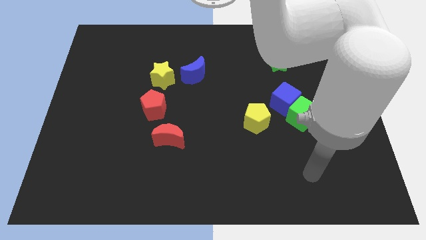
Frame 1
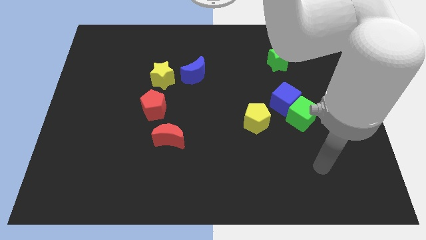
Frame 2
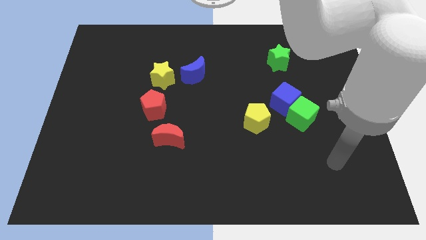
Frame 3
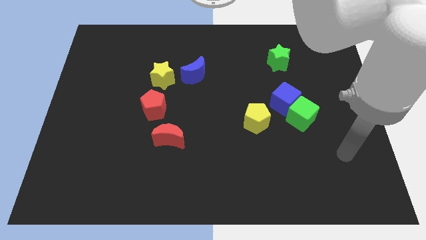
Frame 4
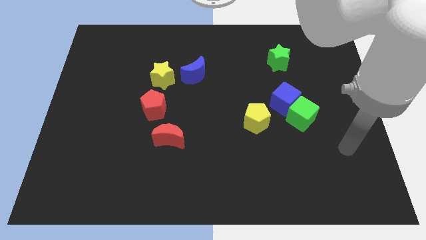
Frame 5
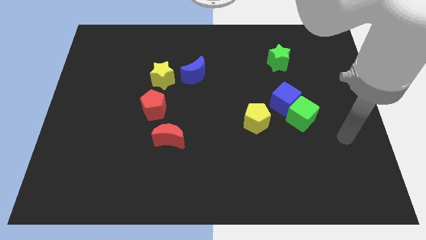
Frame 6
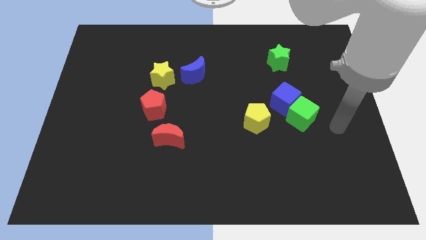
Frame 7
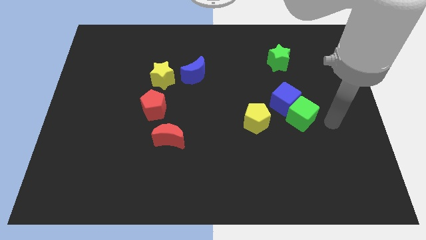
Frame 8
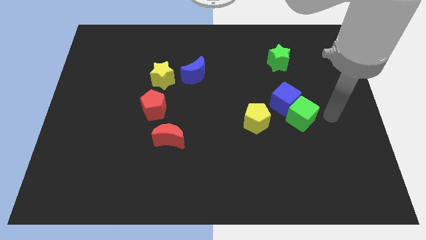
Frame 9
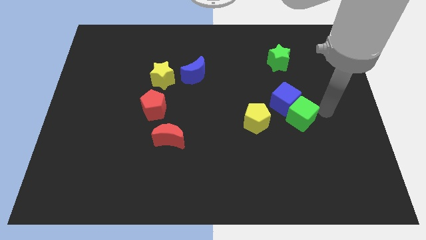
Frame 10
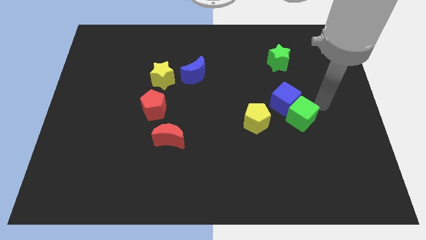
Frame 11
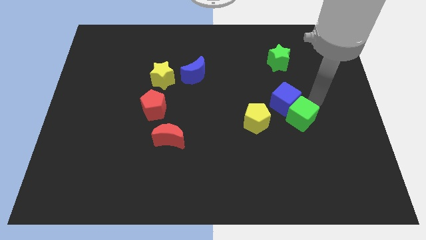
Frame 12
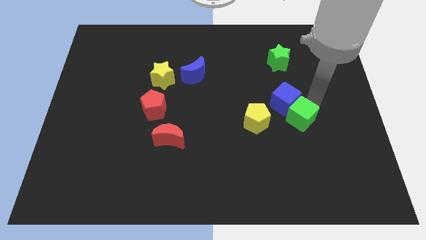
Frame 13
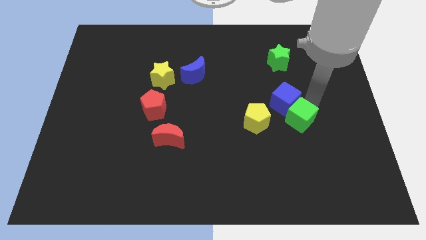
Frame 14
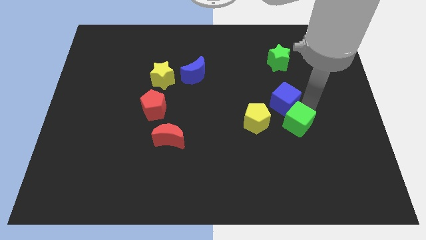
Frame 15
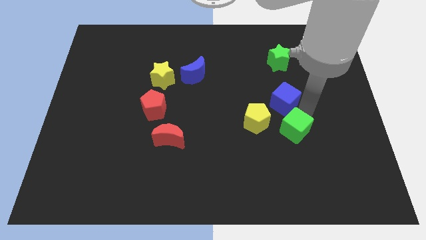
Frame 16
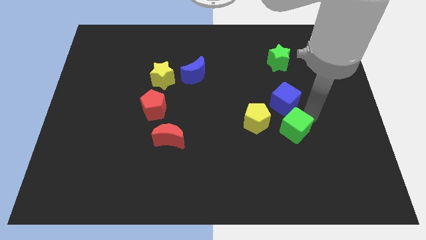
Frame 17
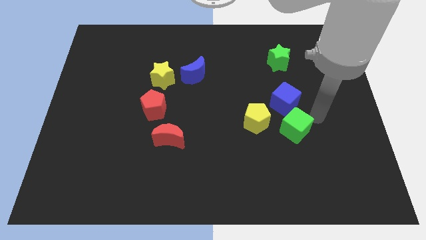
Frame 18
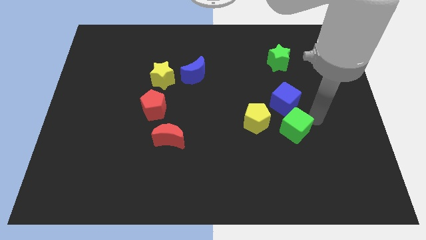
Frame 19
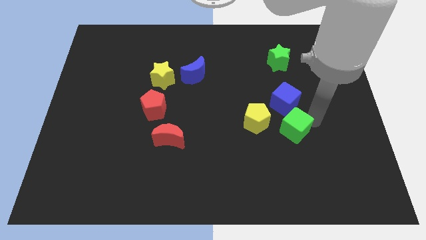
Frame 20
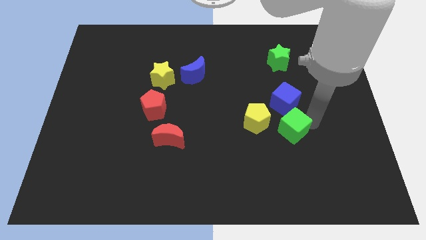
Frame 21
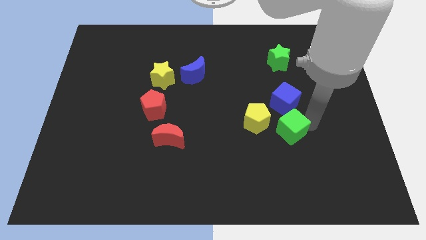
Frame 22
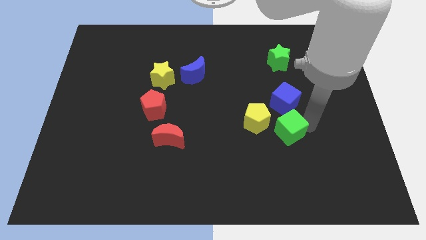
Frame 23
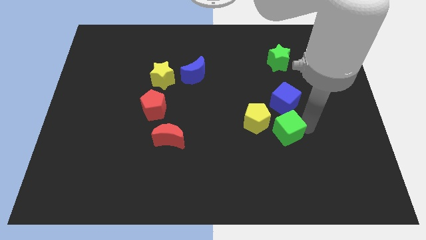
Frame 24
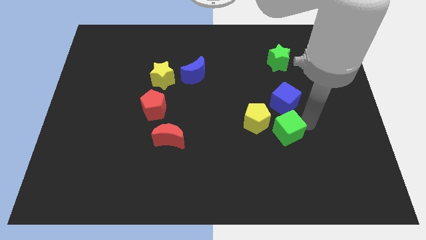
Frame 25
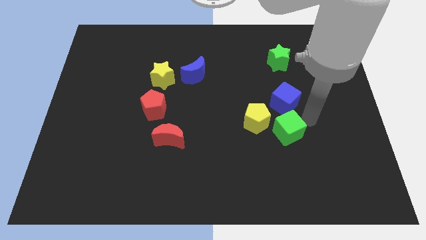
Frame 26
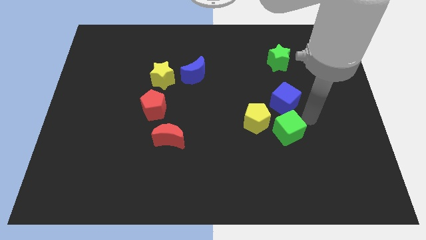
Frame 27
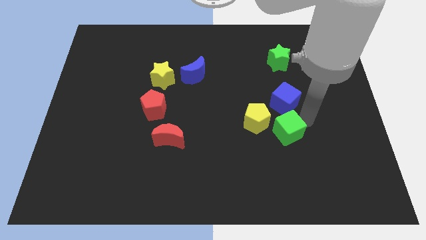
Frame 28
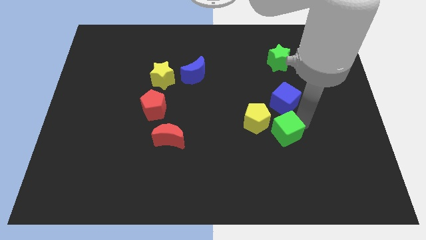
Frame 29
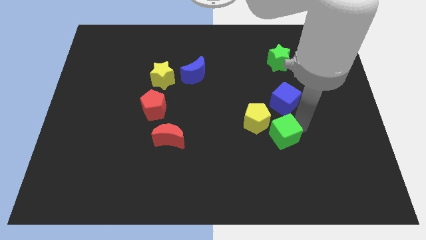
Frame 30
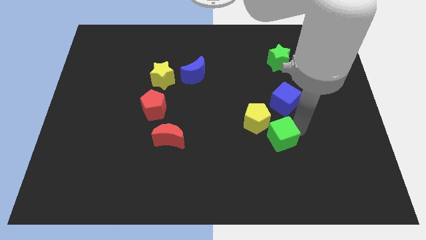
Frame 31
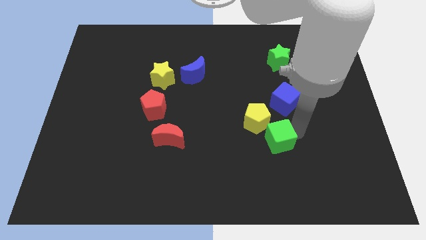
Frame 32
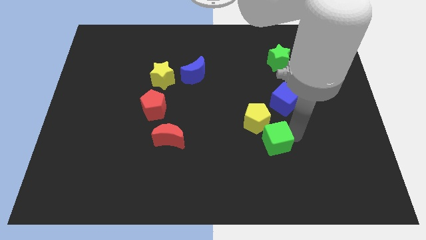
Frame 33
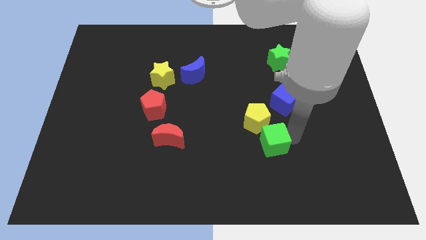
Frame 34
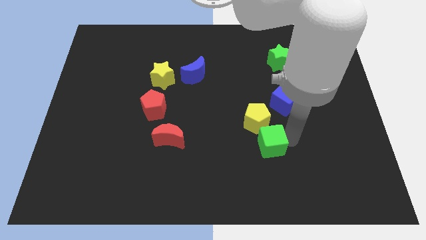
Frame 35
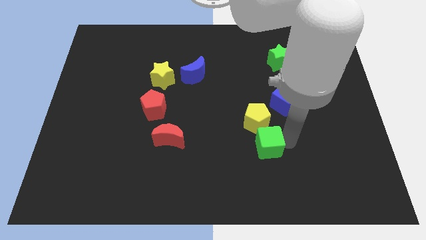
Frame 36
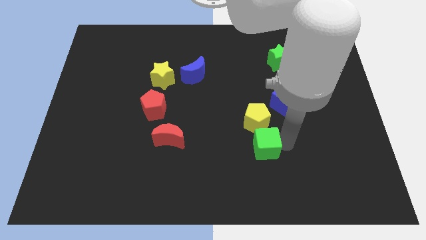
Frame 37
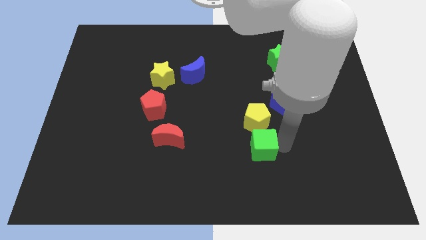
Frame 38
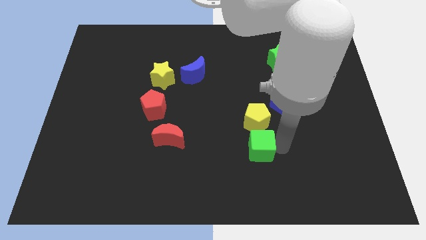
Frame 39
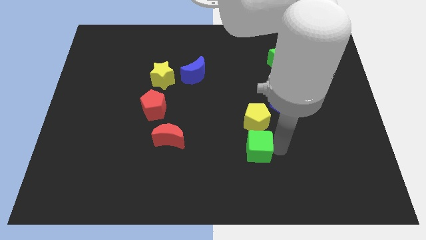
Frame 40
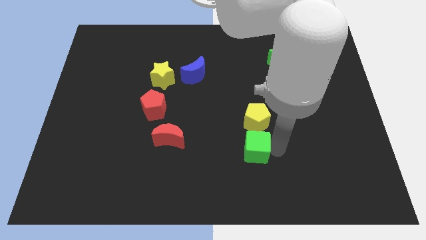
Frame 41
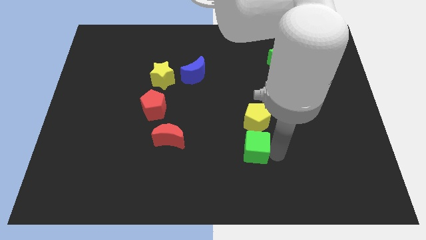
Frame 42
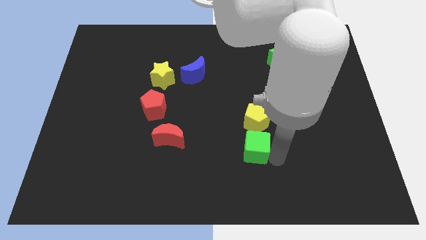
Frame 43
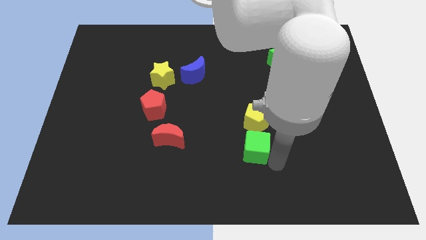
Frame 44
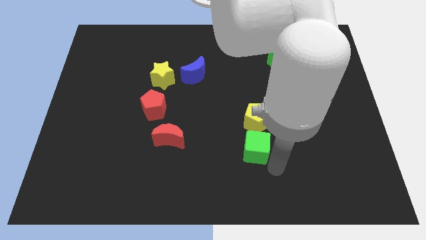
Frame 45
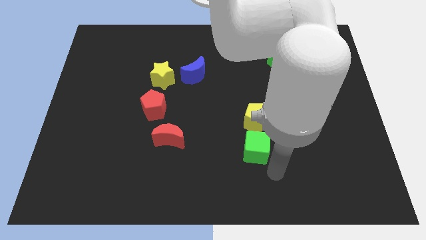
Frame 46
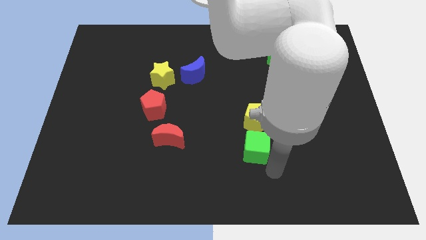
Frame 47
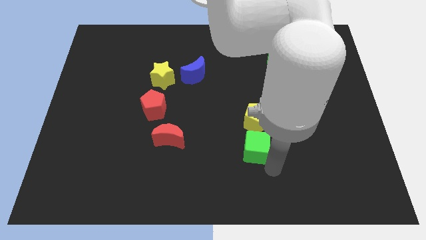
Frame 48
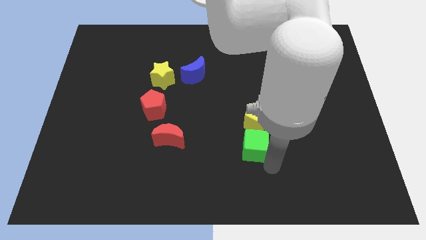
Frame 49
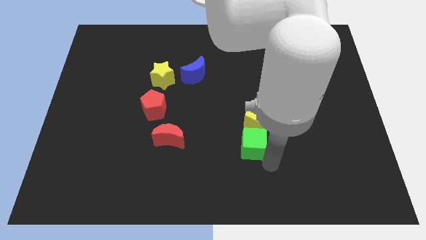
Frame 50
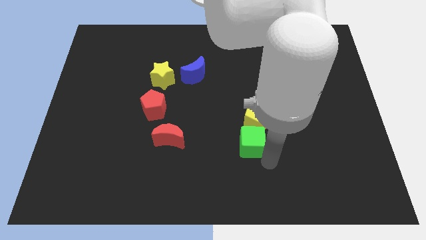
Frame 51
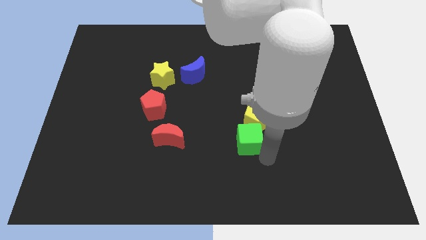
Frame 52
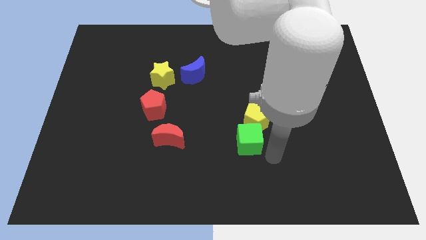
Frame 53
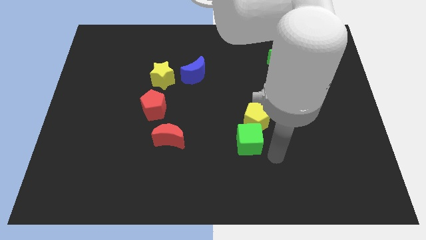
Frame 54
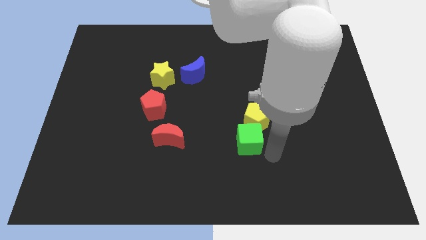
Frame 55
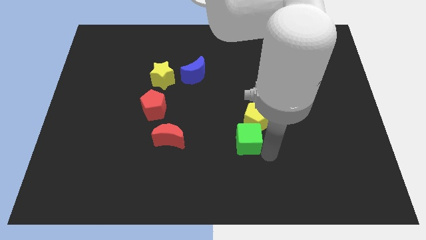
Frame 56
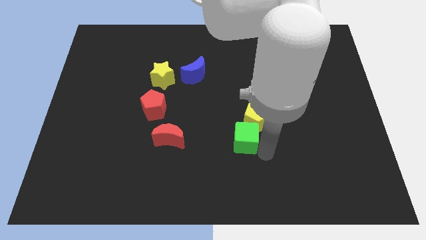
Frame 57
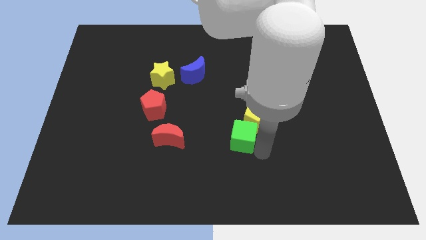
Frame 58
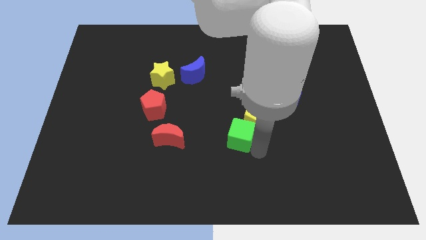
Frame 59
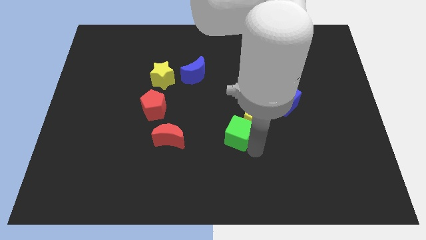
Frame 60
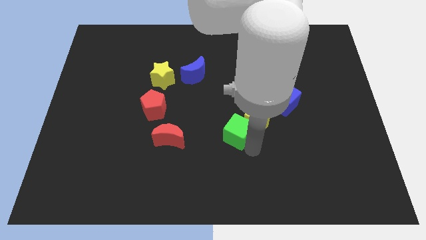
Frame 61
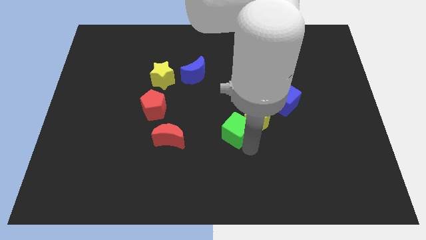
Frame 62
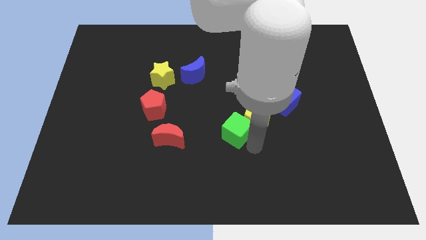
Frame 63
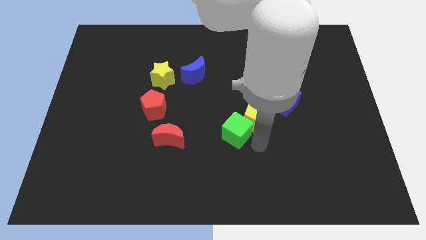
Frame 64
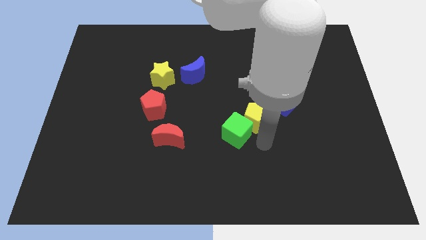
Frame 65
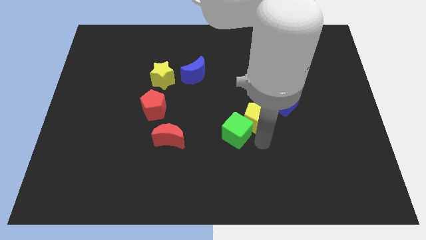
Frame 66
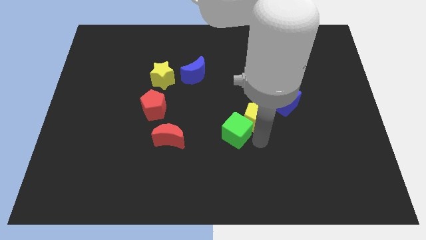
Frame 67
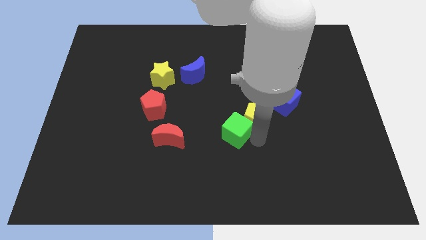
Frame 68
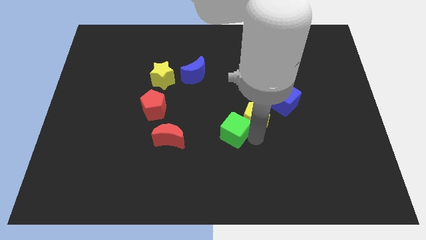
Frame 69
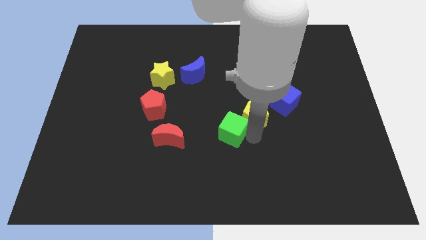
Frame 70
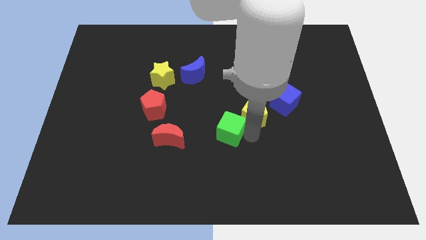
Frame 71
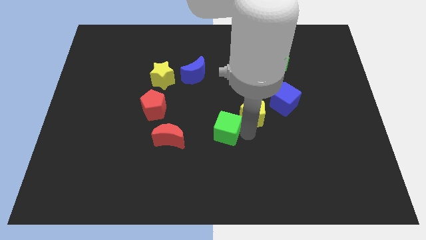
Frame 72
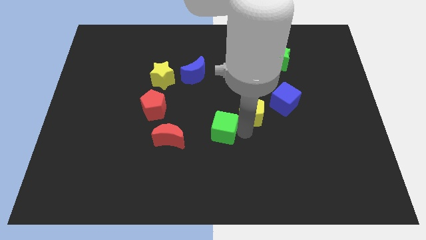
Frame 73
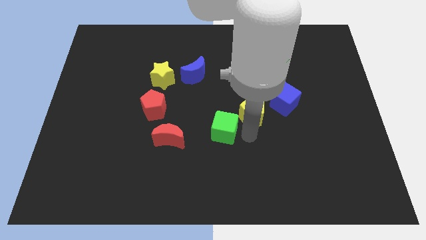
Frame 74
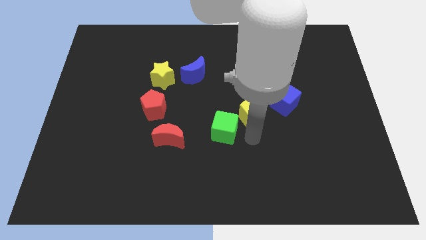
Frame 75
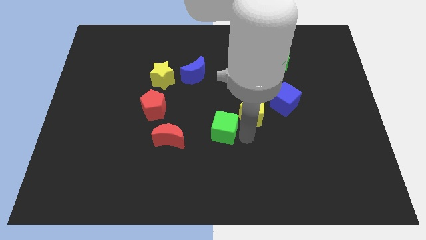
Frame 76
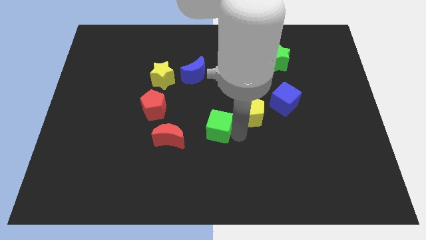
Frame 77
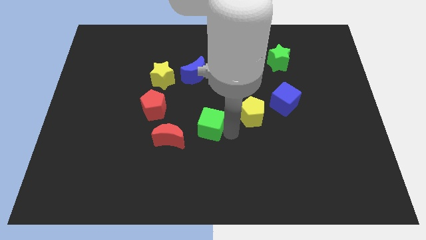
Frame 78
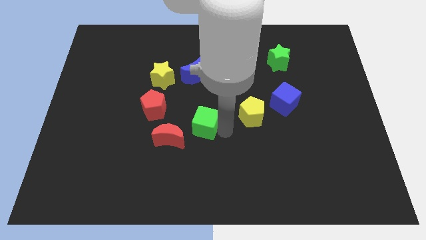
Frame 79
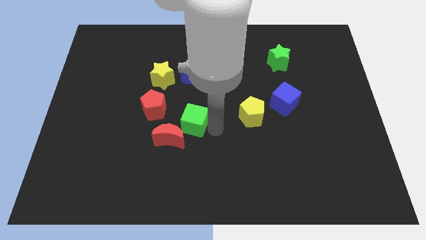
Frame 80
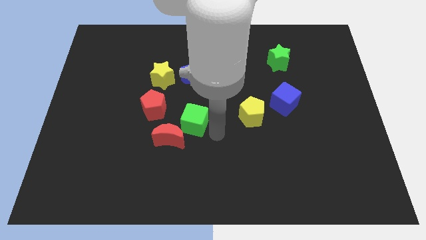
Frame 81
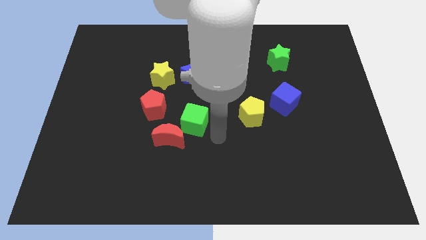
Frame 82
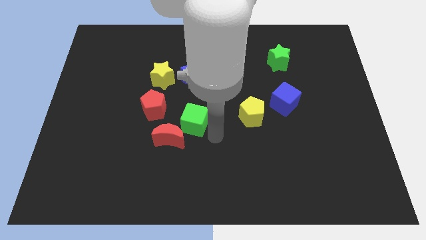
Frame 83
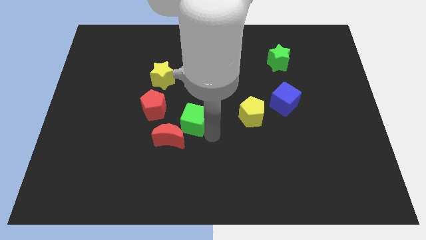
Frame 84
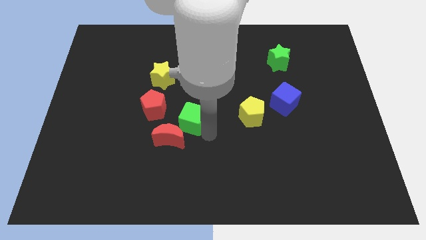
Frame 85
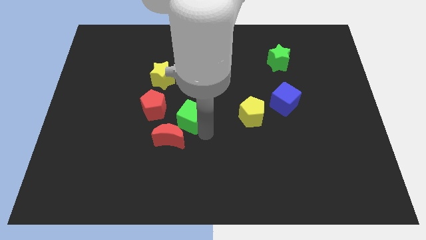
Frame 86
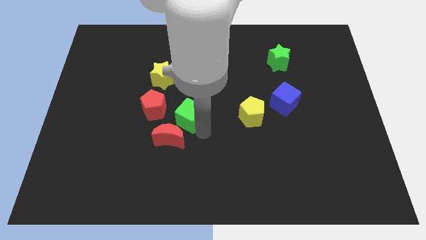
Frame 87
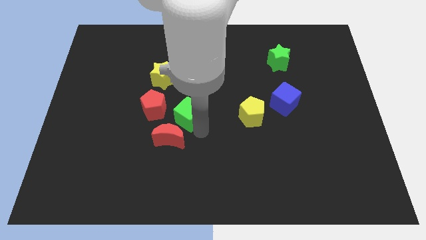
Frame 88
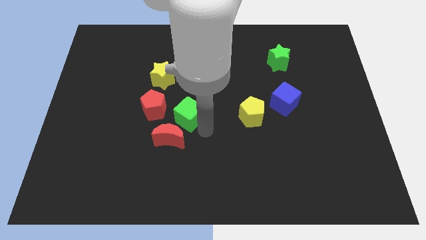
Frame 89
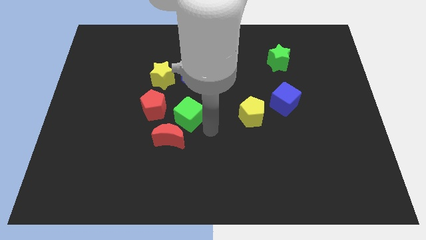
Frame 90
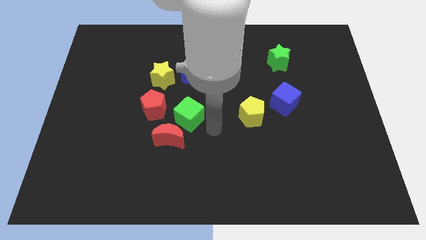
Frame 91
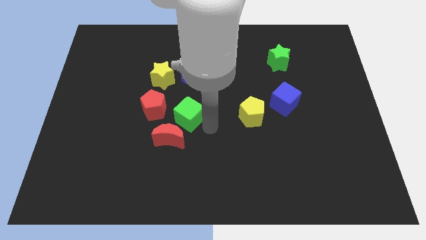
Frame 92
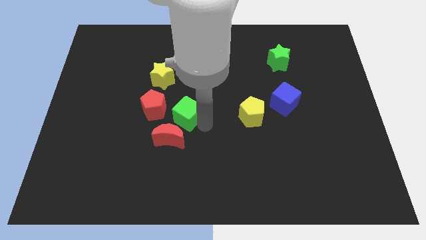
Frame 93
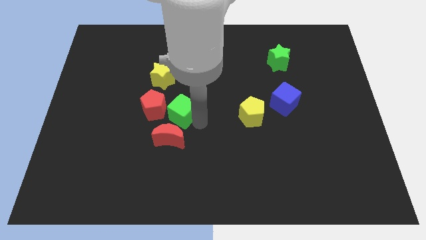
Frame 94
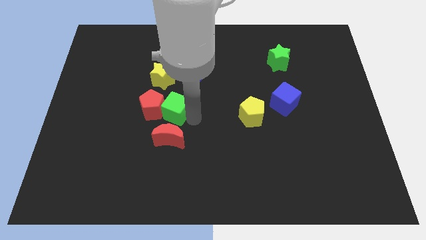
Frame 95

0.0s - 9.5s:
slide the green cube next to the red pentagon
